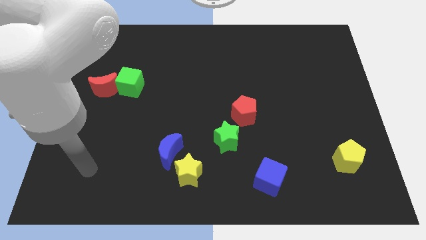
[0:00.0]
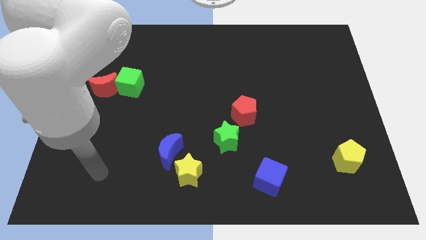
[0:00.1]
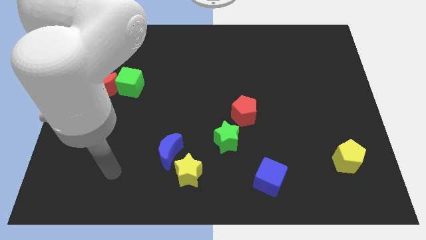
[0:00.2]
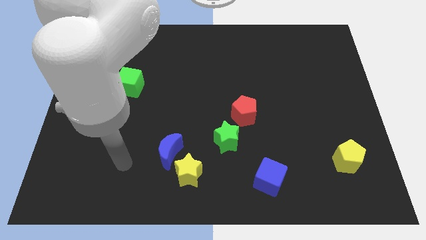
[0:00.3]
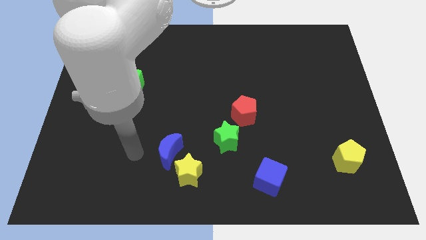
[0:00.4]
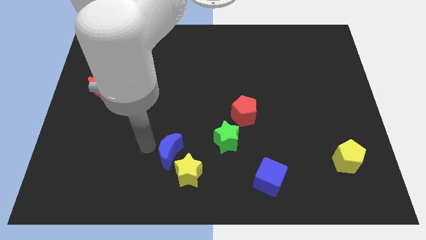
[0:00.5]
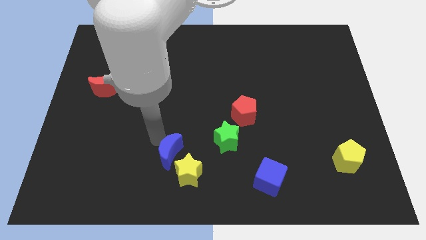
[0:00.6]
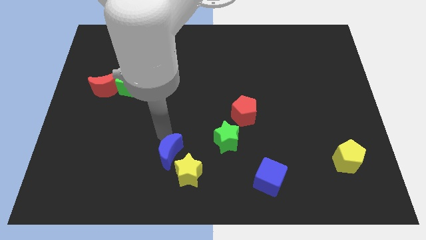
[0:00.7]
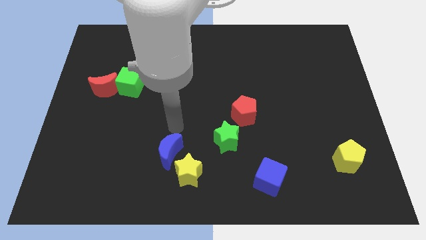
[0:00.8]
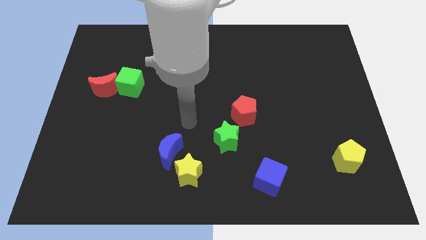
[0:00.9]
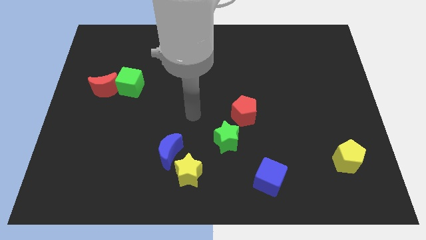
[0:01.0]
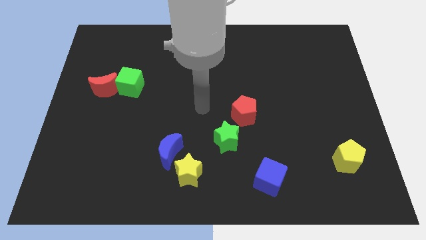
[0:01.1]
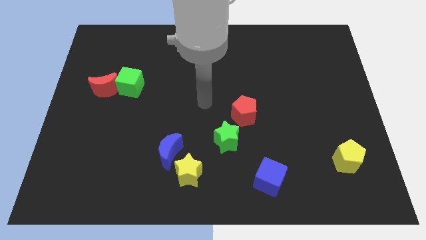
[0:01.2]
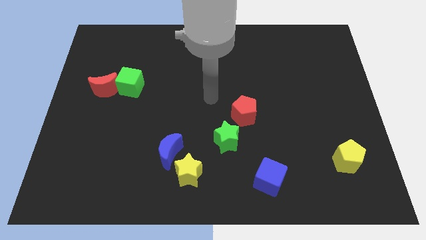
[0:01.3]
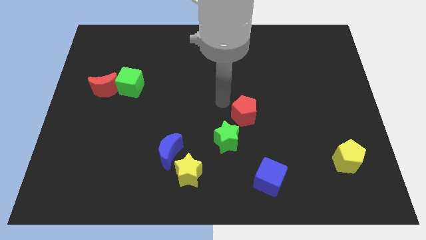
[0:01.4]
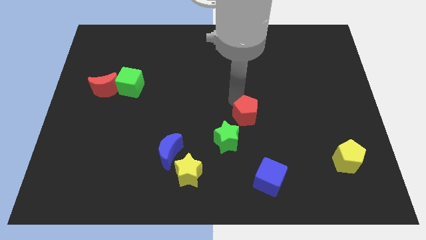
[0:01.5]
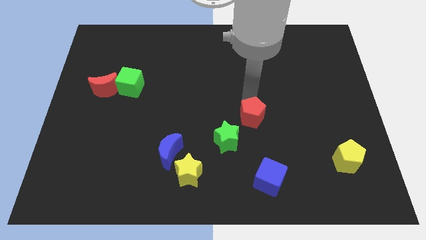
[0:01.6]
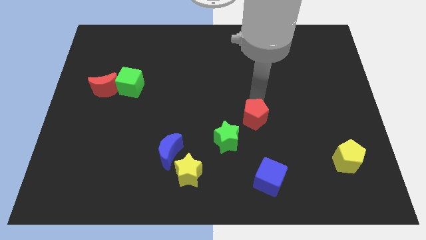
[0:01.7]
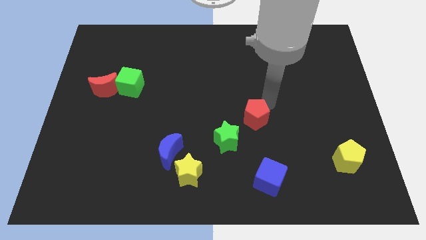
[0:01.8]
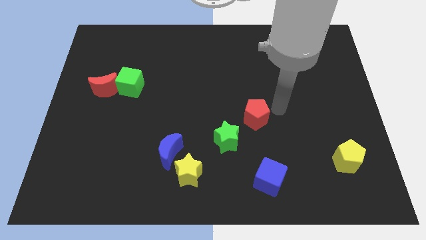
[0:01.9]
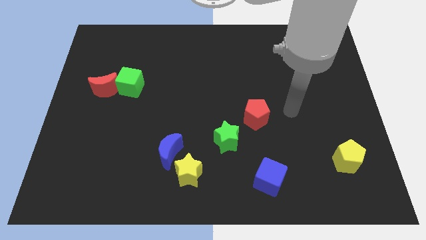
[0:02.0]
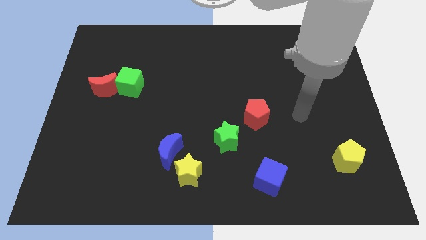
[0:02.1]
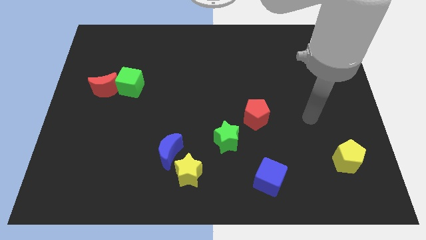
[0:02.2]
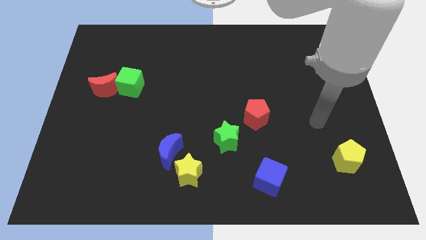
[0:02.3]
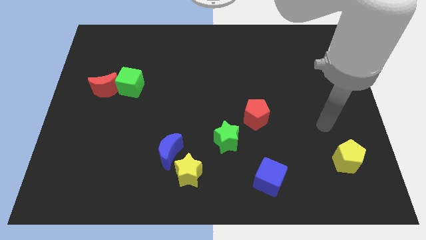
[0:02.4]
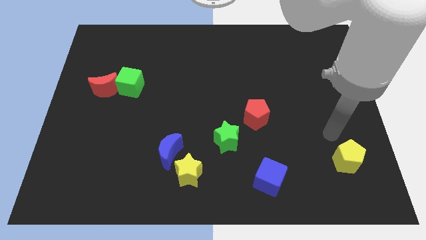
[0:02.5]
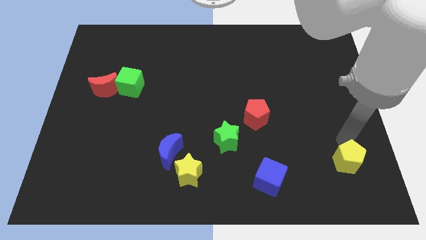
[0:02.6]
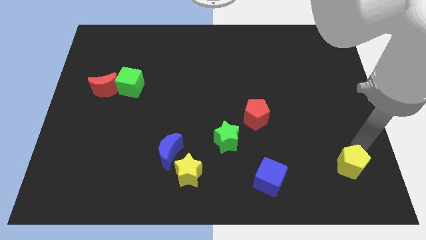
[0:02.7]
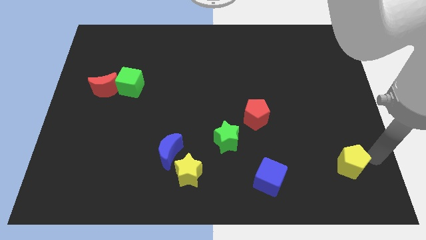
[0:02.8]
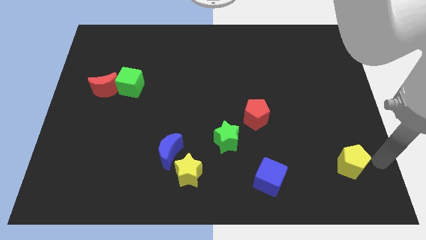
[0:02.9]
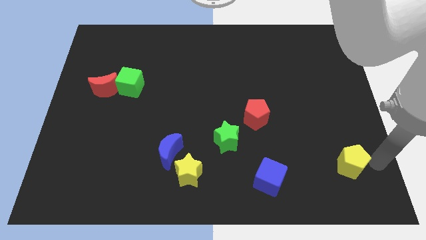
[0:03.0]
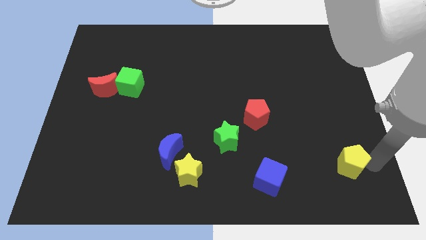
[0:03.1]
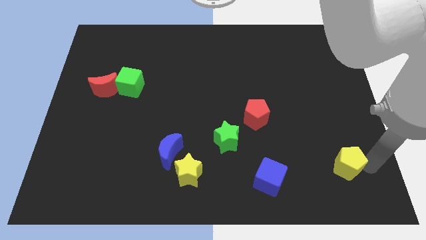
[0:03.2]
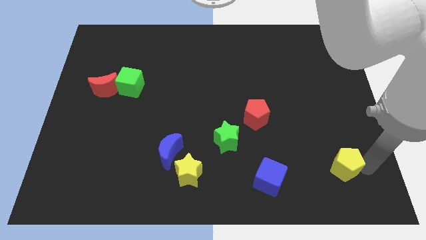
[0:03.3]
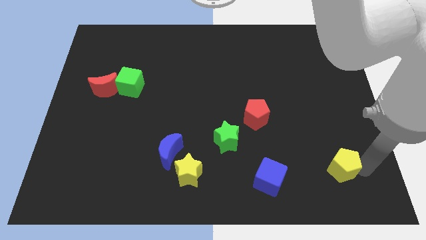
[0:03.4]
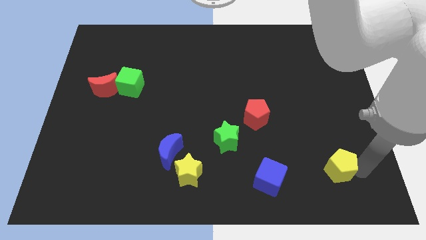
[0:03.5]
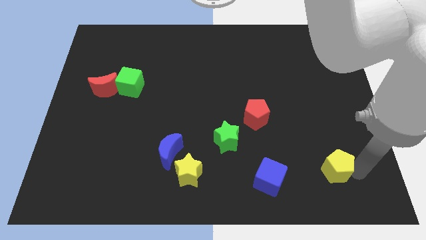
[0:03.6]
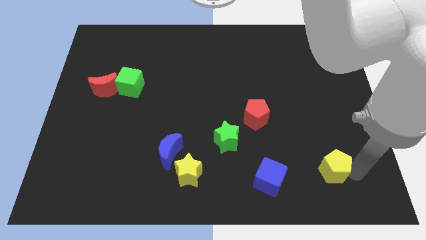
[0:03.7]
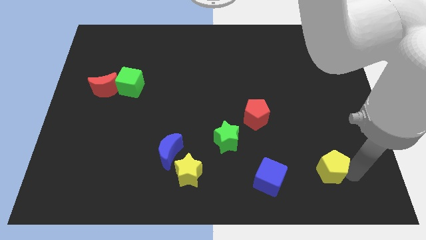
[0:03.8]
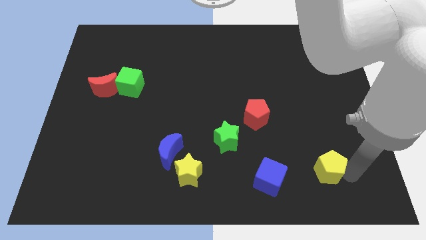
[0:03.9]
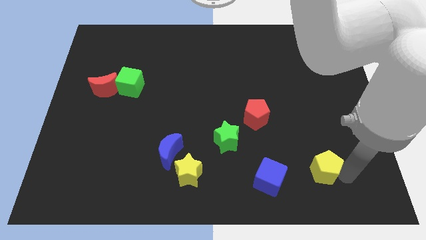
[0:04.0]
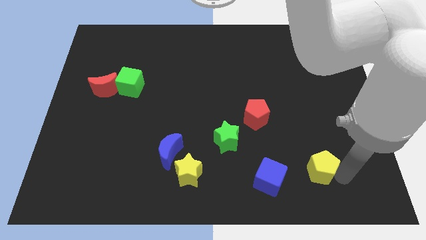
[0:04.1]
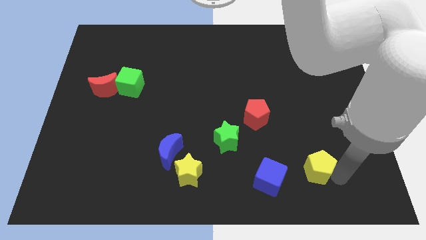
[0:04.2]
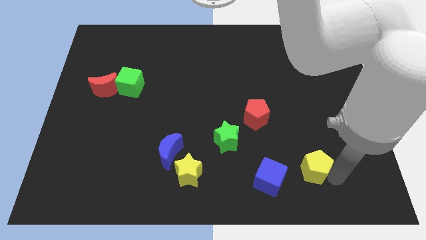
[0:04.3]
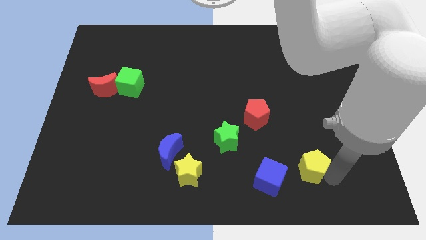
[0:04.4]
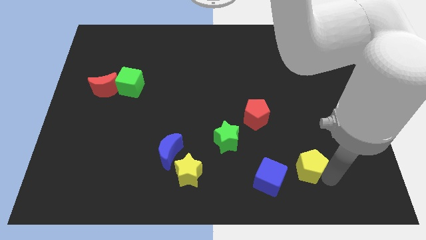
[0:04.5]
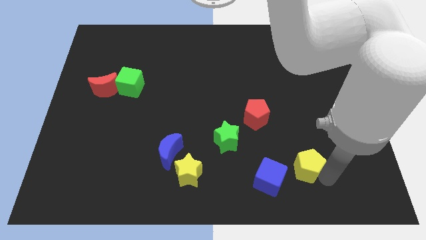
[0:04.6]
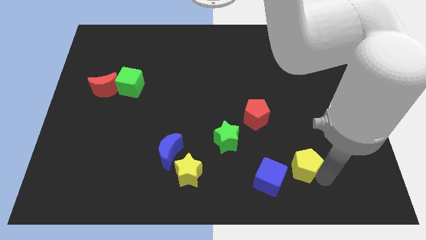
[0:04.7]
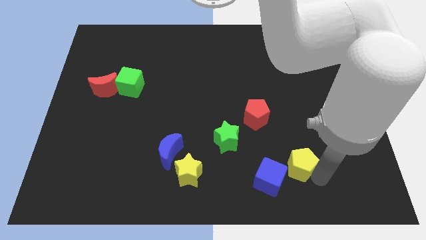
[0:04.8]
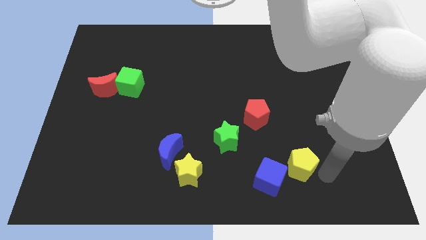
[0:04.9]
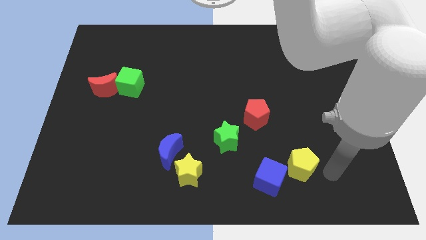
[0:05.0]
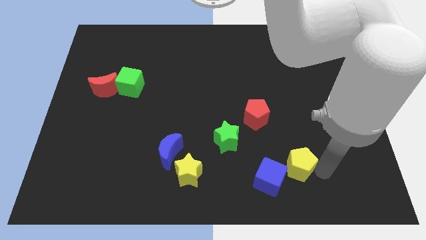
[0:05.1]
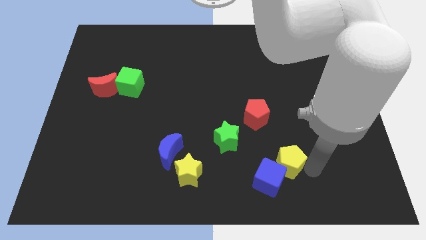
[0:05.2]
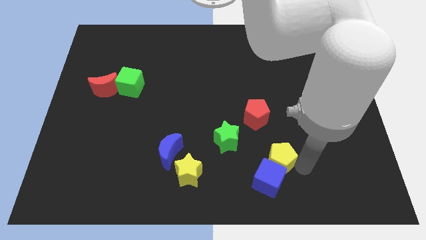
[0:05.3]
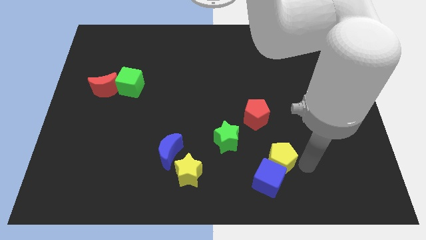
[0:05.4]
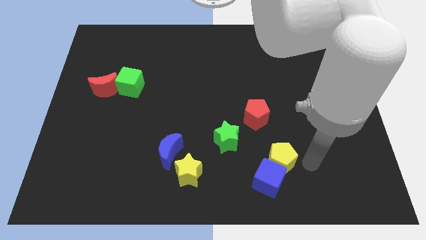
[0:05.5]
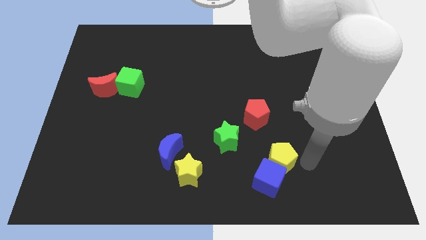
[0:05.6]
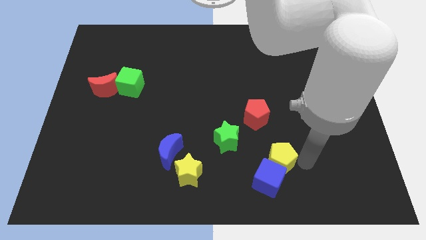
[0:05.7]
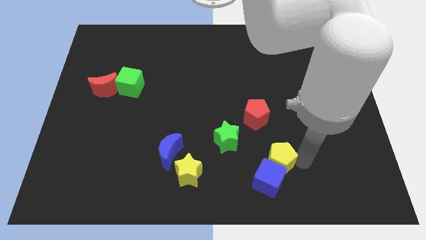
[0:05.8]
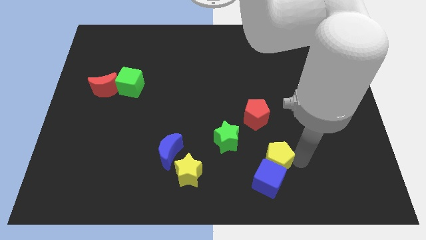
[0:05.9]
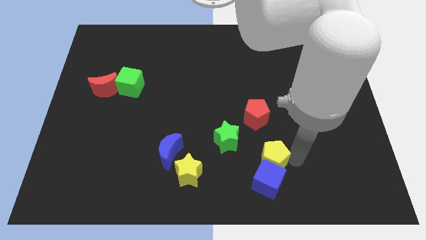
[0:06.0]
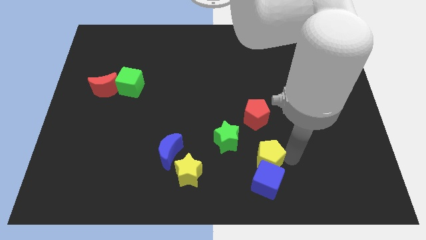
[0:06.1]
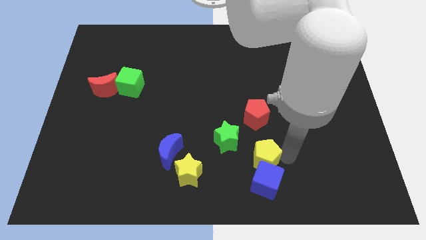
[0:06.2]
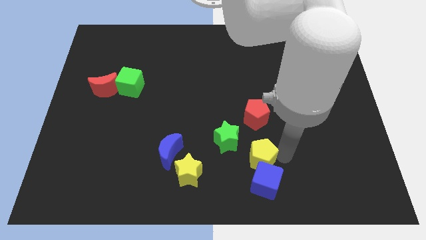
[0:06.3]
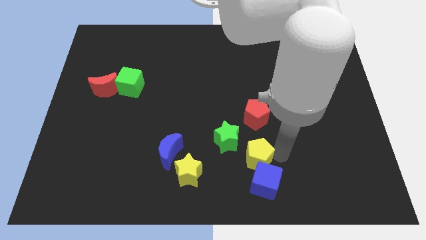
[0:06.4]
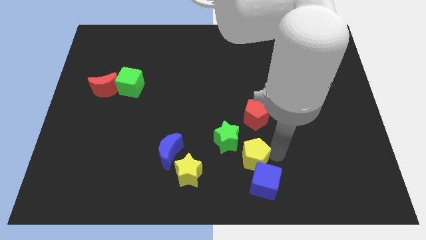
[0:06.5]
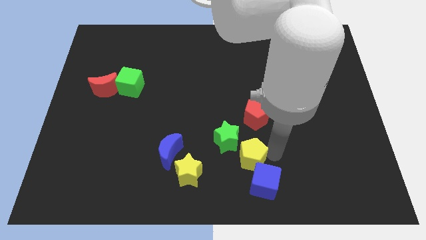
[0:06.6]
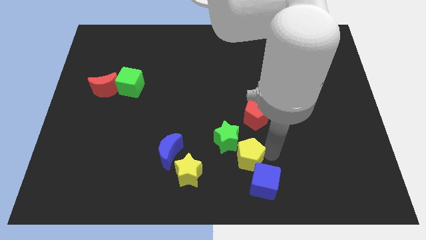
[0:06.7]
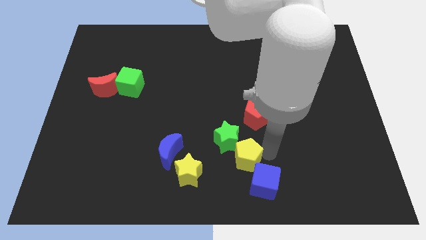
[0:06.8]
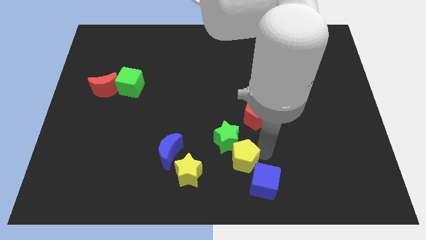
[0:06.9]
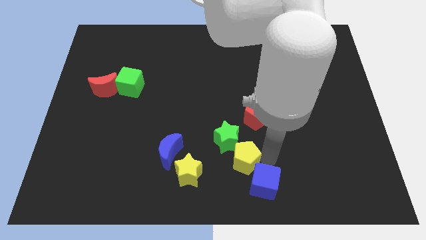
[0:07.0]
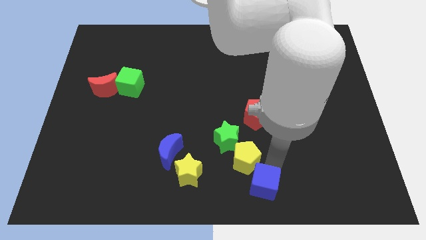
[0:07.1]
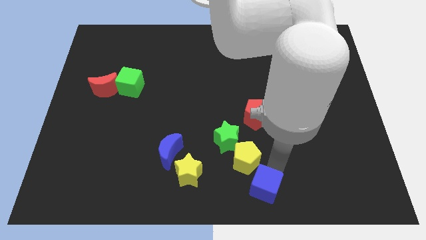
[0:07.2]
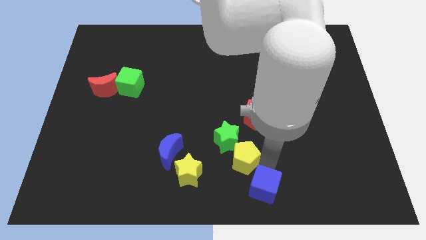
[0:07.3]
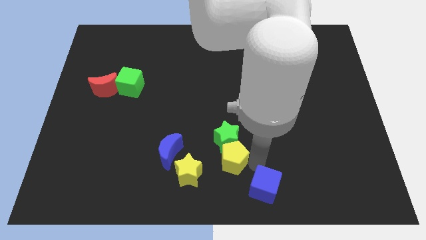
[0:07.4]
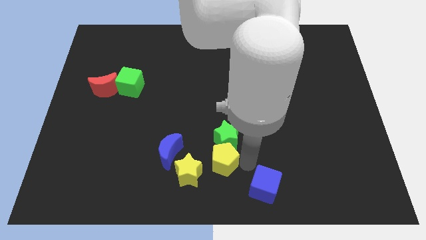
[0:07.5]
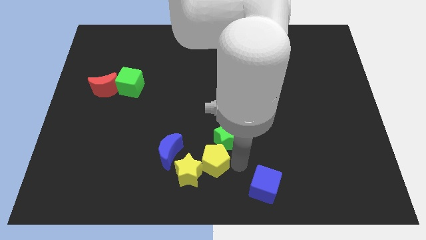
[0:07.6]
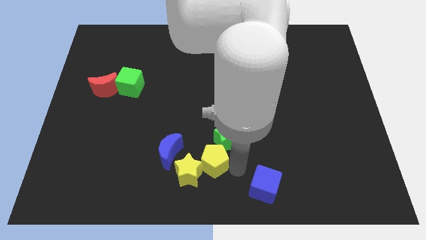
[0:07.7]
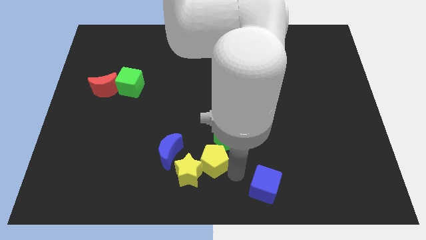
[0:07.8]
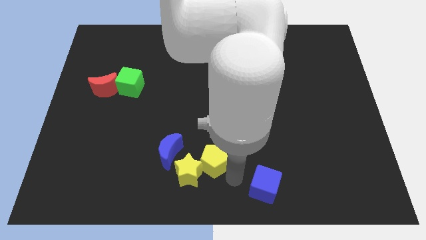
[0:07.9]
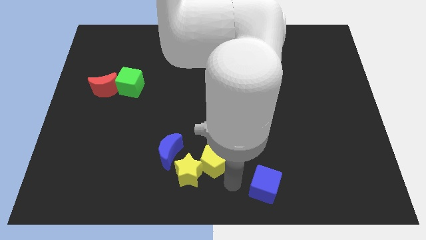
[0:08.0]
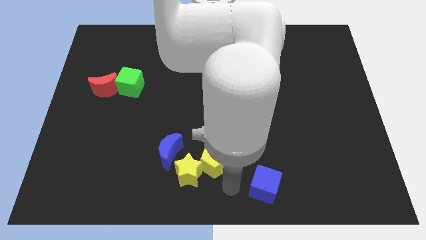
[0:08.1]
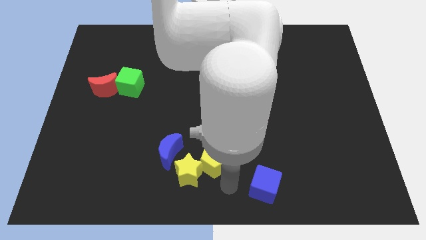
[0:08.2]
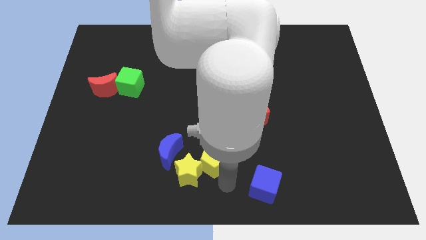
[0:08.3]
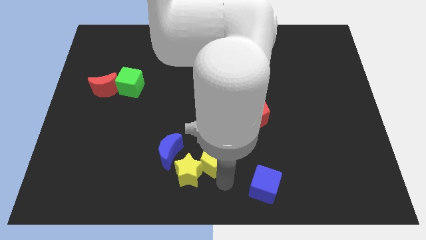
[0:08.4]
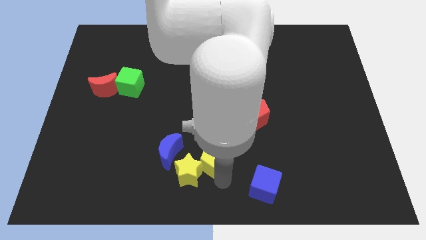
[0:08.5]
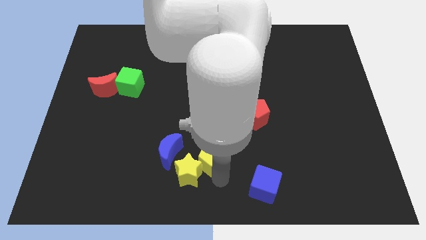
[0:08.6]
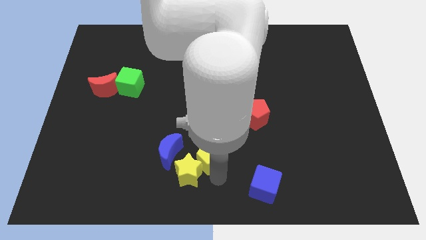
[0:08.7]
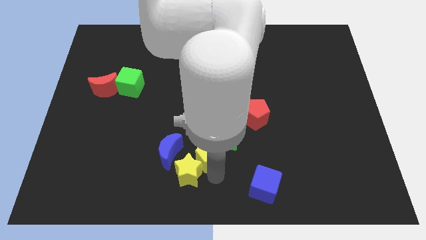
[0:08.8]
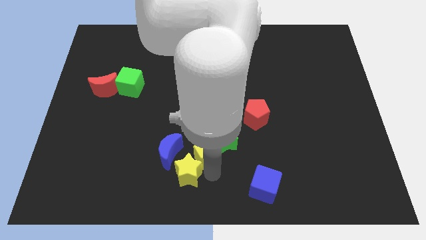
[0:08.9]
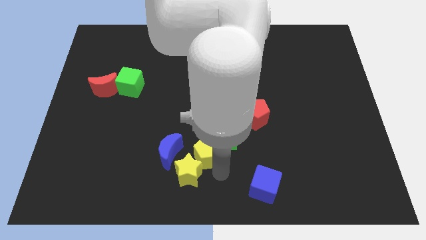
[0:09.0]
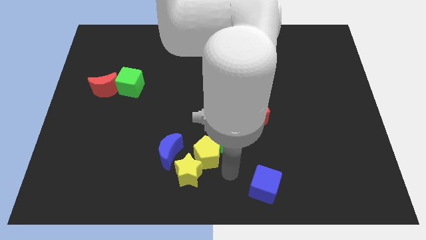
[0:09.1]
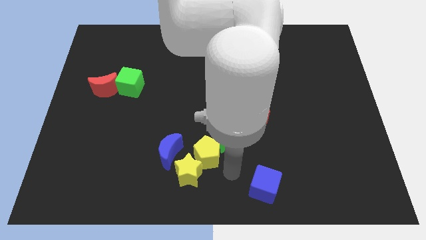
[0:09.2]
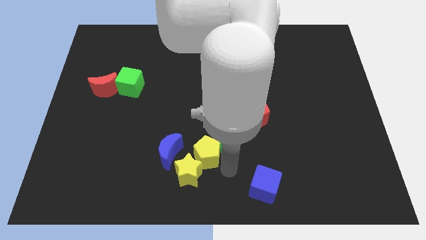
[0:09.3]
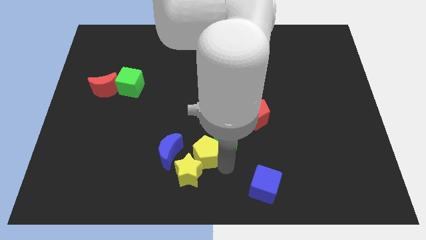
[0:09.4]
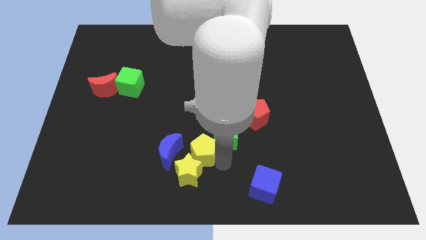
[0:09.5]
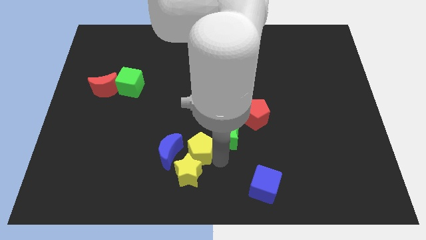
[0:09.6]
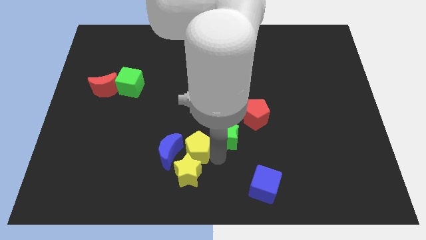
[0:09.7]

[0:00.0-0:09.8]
put the yellow pentagon diagonally up and to the left of the yellow star
